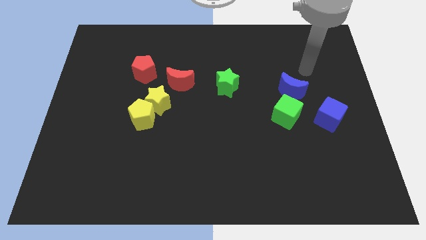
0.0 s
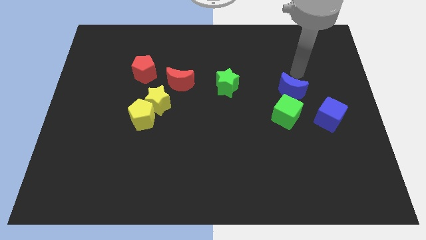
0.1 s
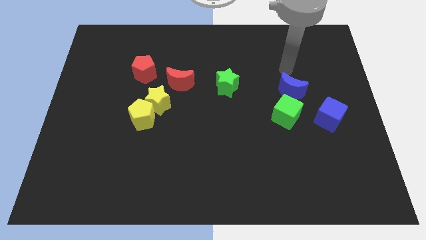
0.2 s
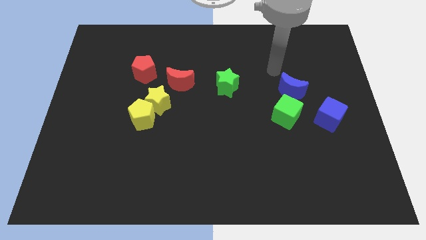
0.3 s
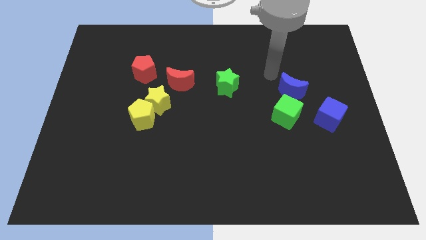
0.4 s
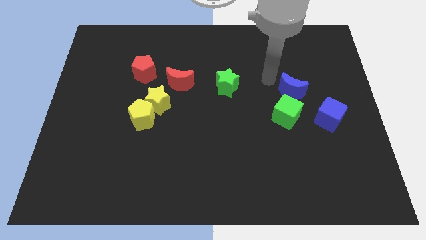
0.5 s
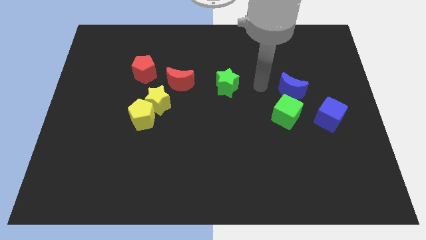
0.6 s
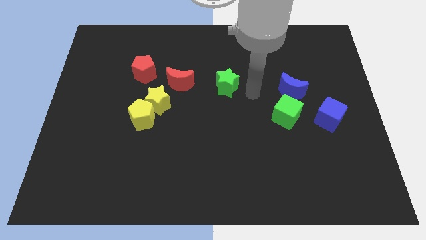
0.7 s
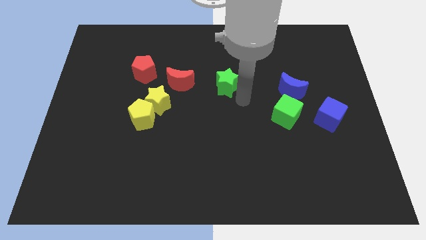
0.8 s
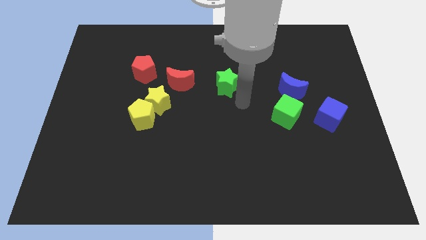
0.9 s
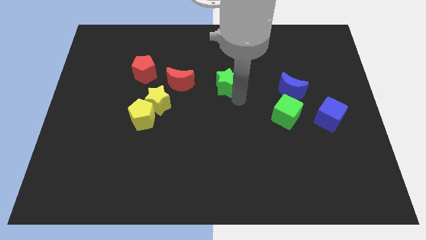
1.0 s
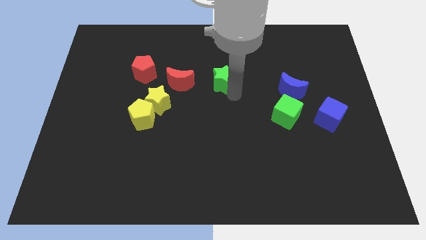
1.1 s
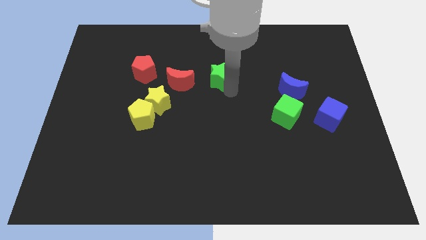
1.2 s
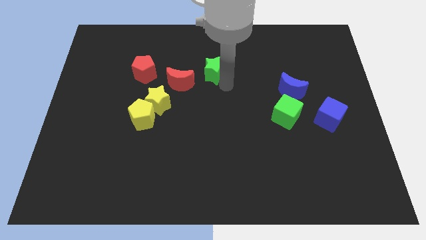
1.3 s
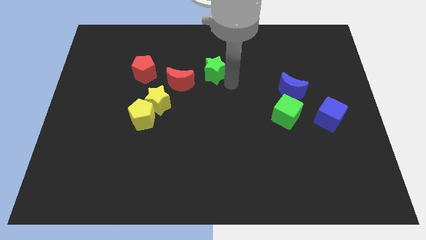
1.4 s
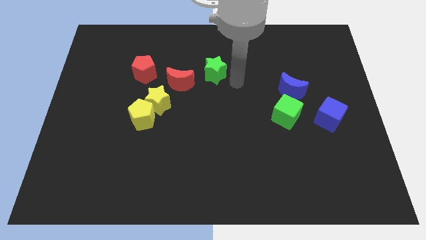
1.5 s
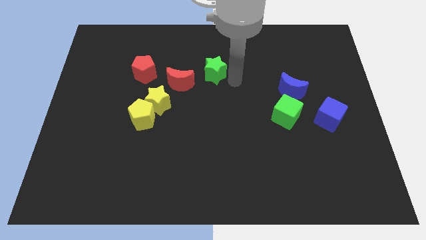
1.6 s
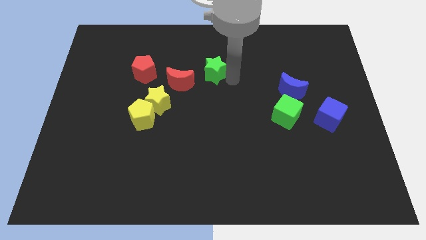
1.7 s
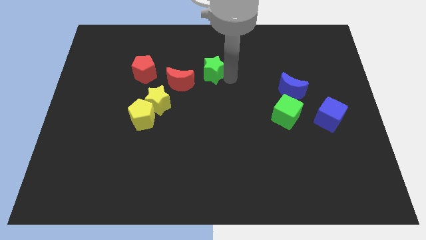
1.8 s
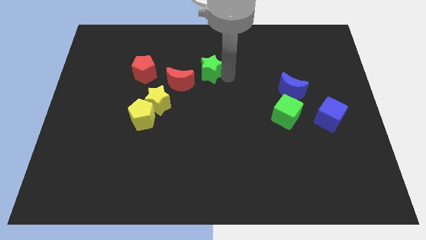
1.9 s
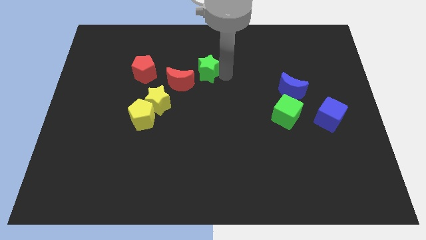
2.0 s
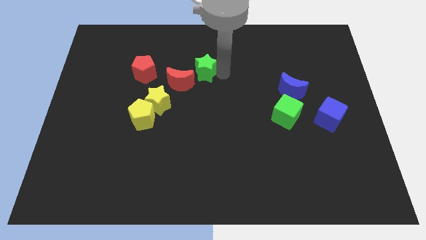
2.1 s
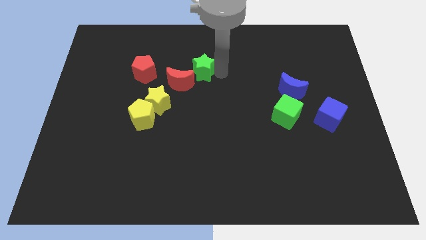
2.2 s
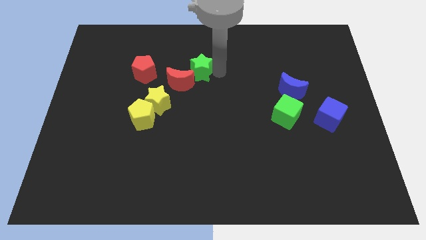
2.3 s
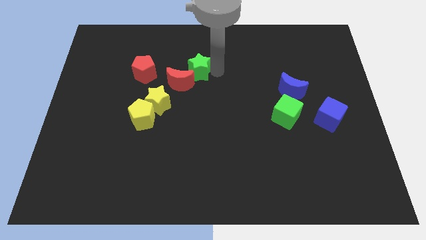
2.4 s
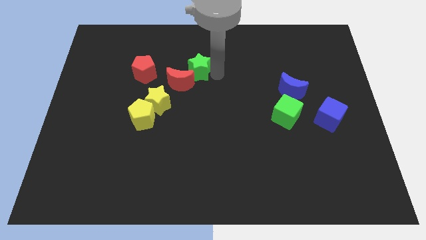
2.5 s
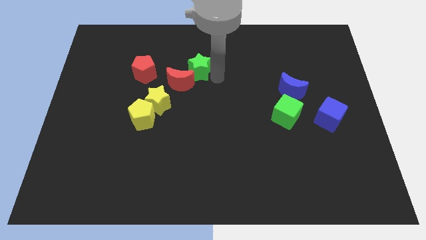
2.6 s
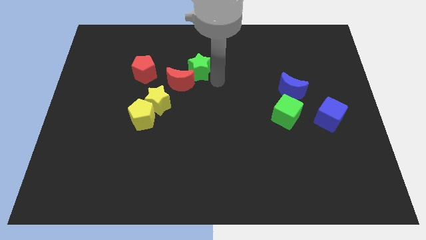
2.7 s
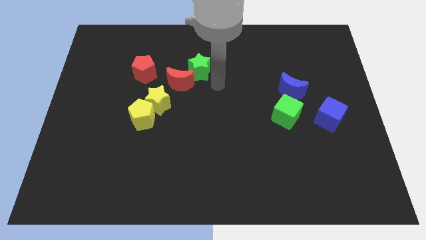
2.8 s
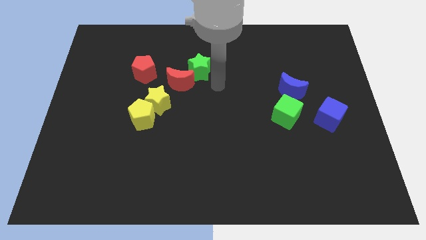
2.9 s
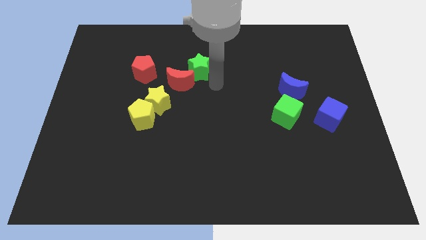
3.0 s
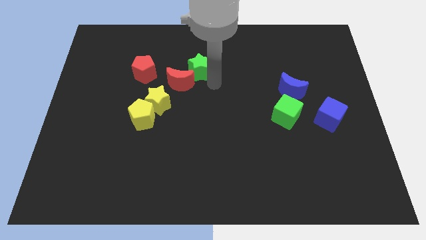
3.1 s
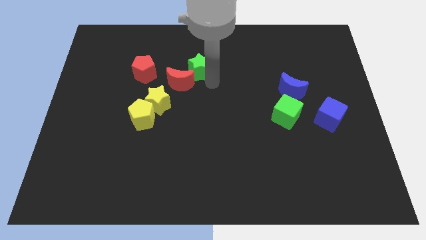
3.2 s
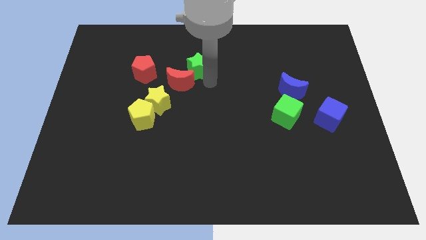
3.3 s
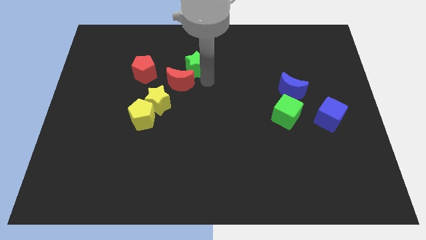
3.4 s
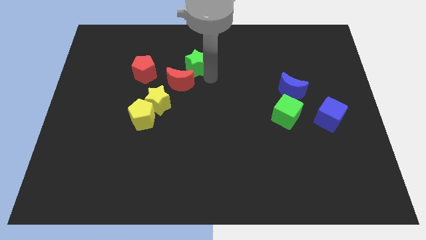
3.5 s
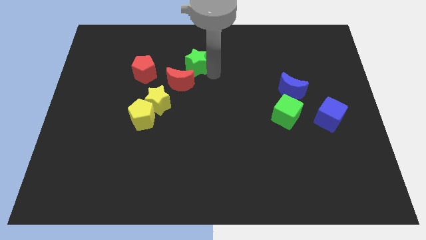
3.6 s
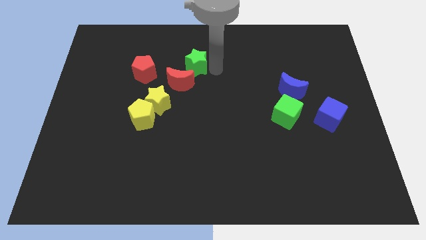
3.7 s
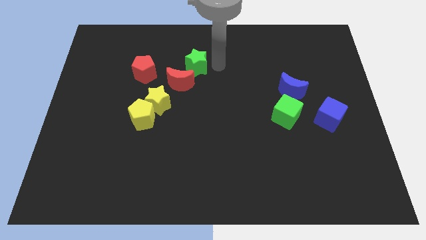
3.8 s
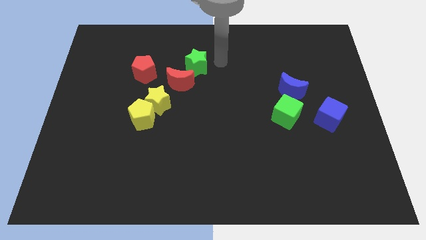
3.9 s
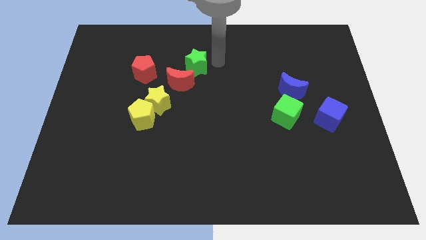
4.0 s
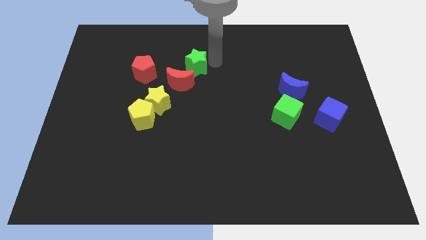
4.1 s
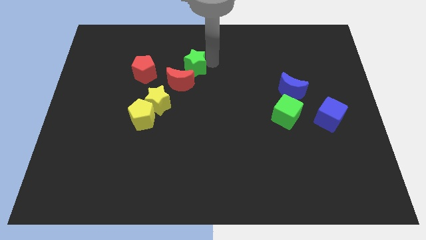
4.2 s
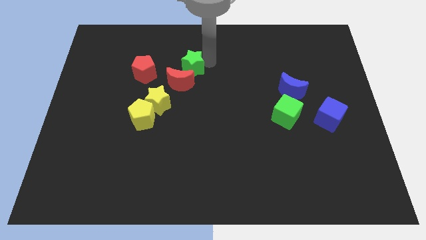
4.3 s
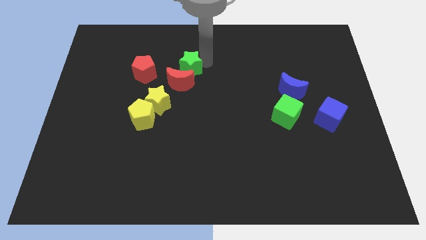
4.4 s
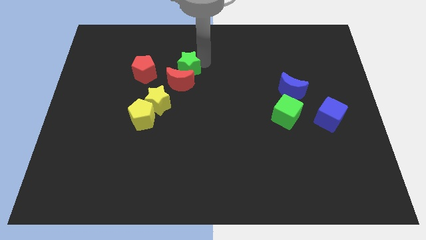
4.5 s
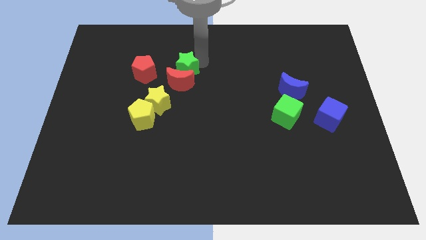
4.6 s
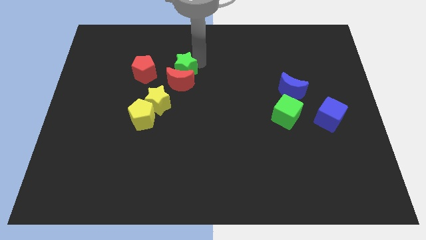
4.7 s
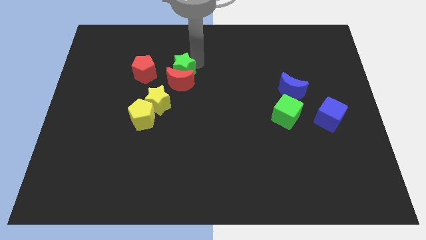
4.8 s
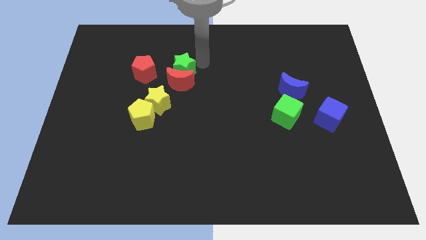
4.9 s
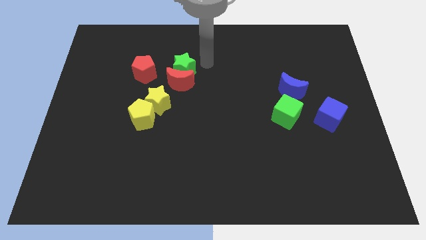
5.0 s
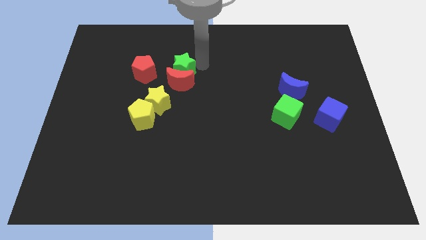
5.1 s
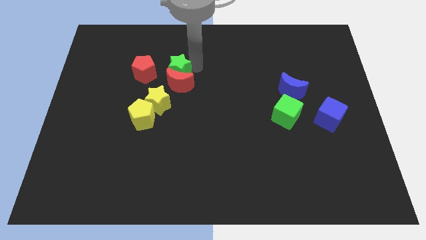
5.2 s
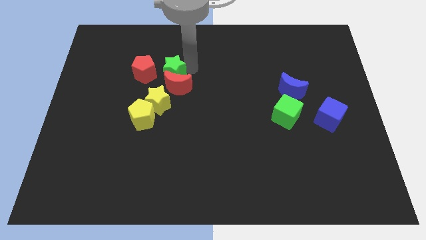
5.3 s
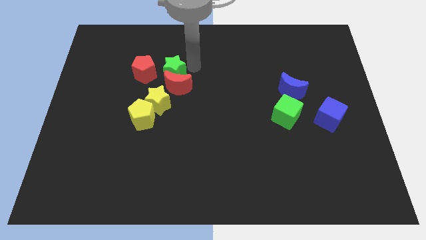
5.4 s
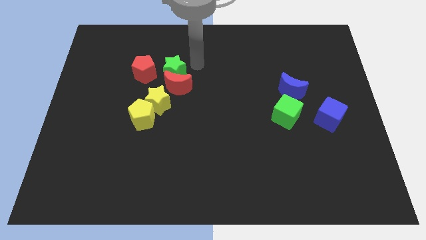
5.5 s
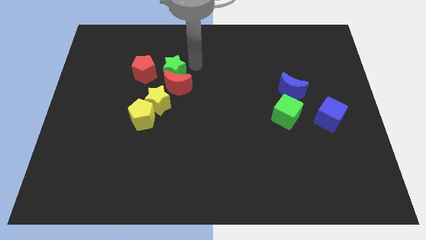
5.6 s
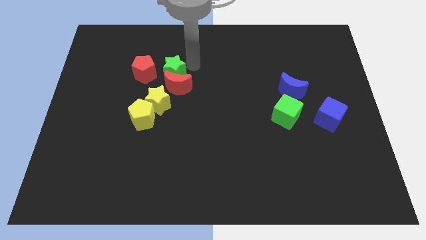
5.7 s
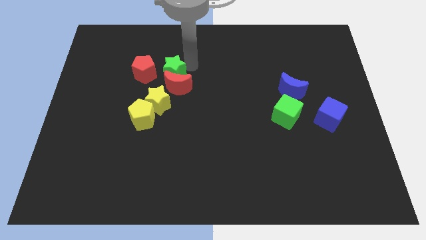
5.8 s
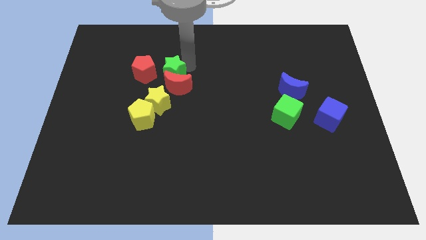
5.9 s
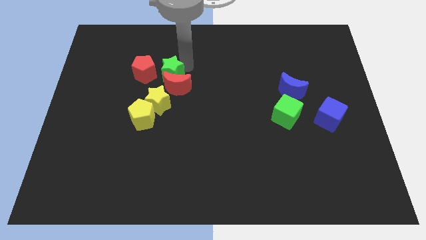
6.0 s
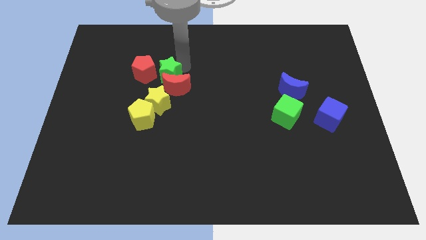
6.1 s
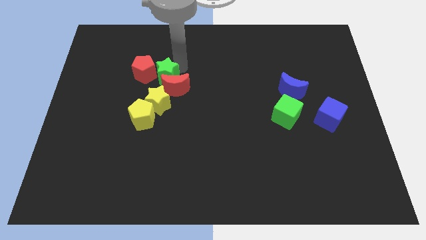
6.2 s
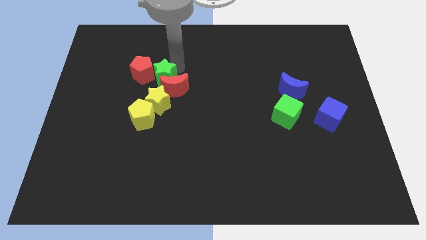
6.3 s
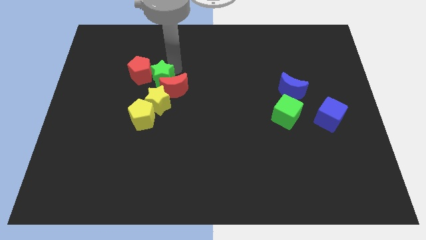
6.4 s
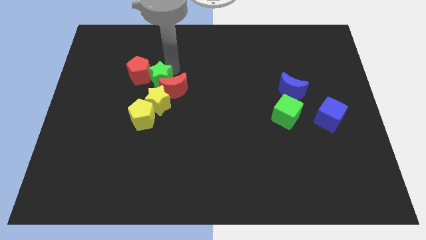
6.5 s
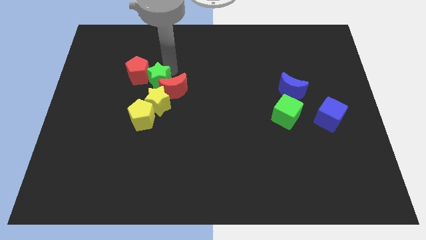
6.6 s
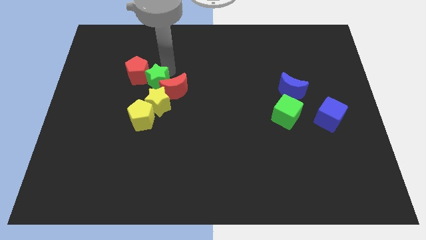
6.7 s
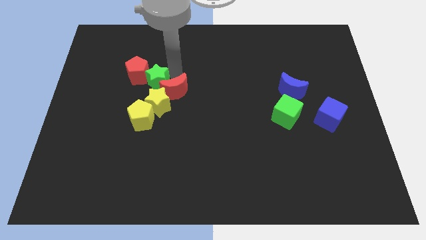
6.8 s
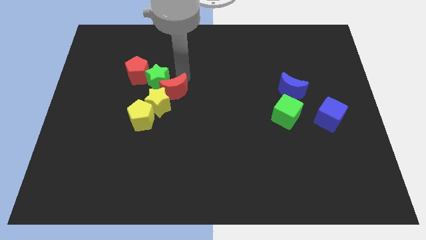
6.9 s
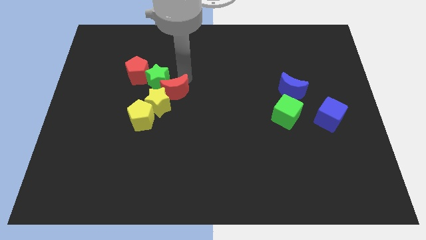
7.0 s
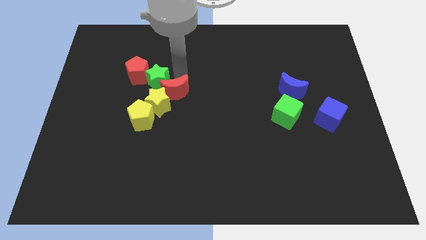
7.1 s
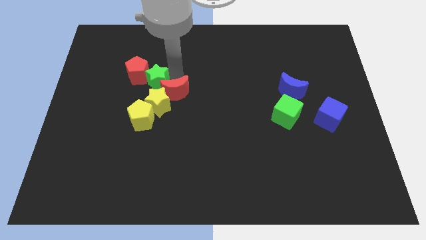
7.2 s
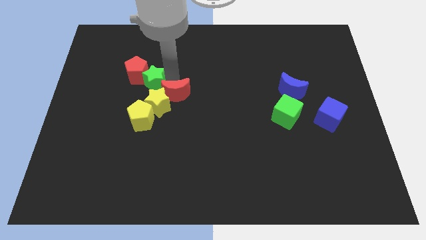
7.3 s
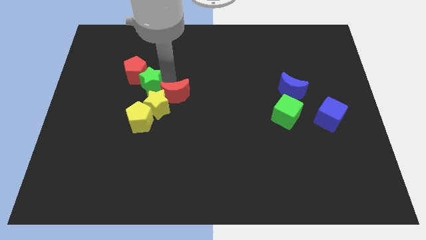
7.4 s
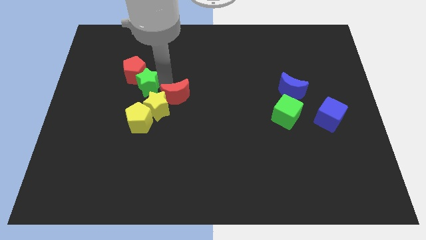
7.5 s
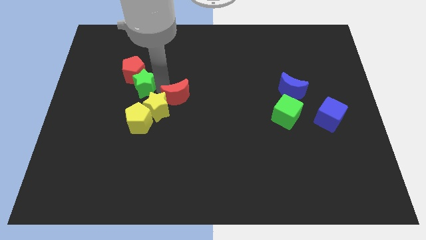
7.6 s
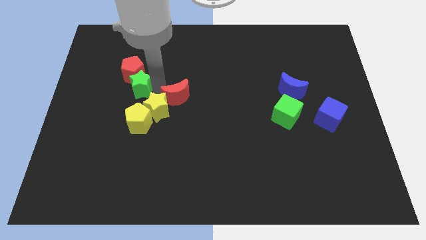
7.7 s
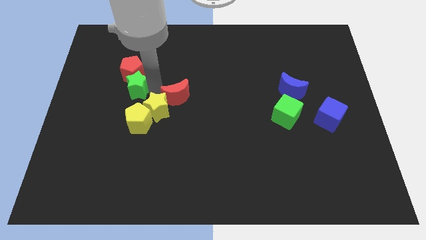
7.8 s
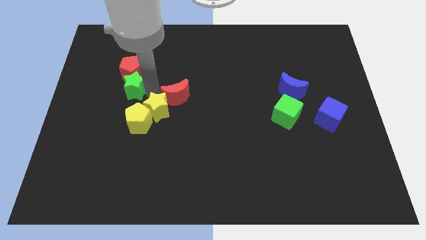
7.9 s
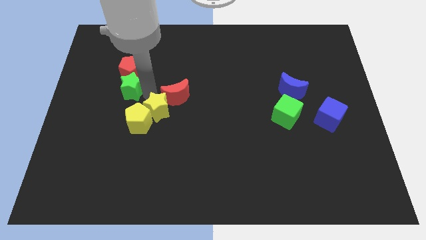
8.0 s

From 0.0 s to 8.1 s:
put the green star to the bottom left side of the red pentagon
